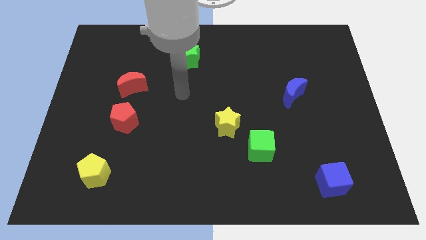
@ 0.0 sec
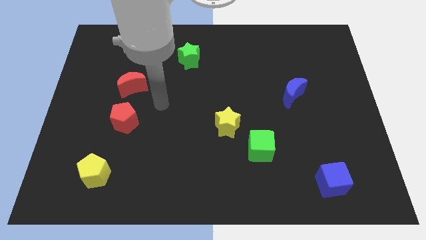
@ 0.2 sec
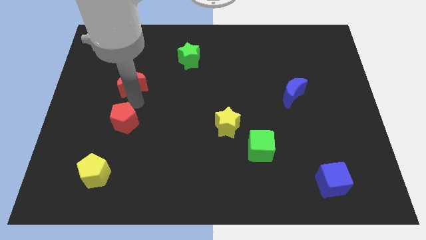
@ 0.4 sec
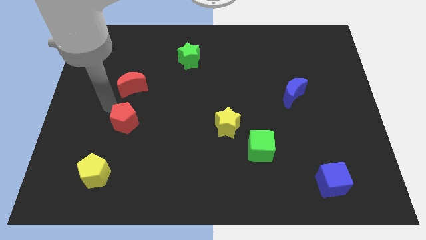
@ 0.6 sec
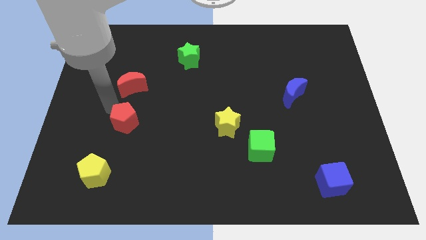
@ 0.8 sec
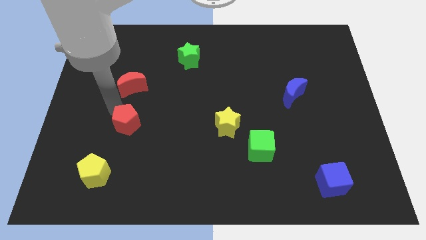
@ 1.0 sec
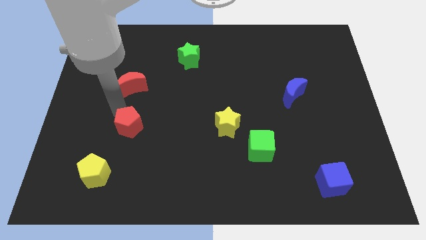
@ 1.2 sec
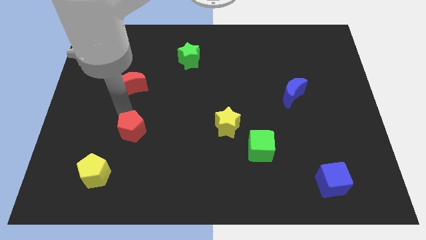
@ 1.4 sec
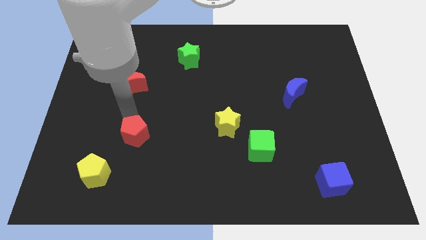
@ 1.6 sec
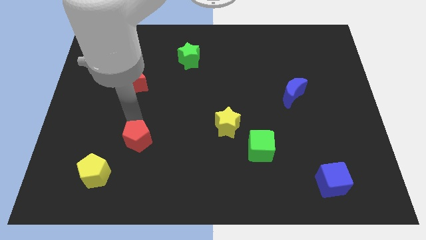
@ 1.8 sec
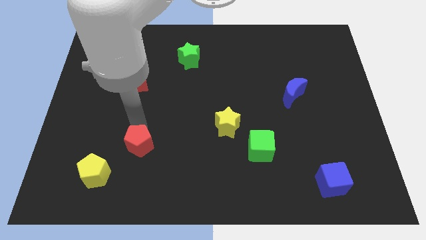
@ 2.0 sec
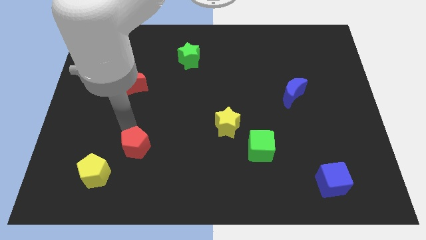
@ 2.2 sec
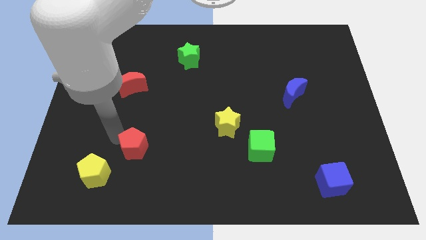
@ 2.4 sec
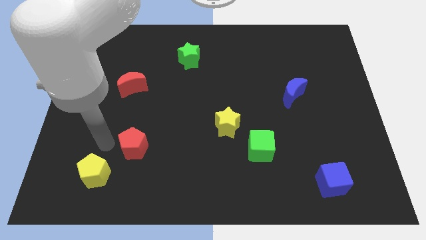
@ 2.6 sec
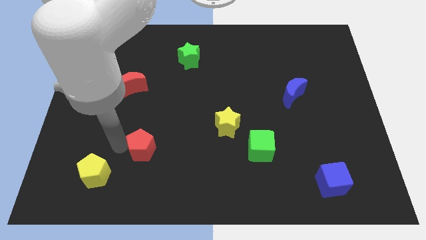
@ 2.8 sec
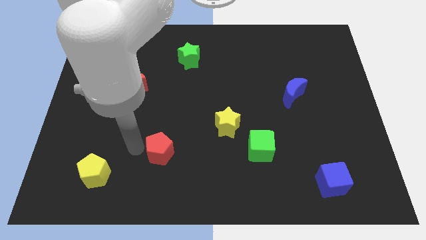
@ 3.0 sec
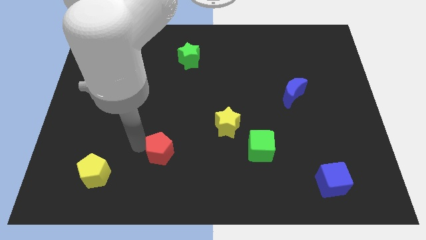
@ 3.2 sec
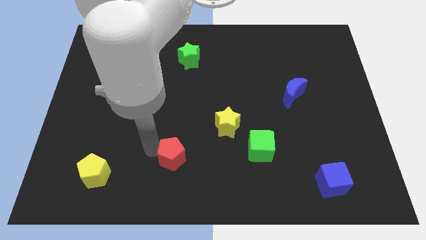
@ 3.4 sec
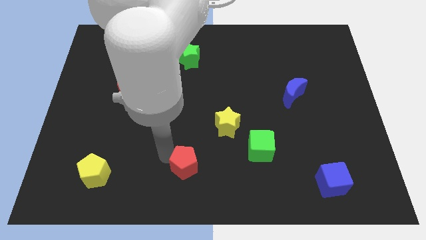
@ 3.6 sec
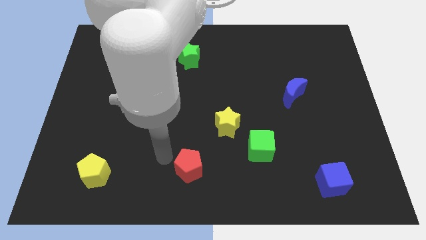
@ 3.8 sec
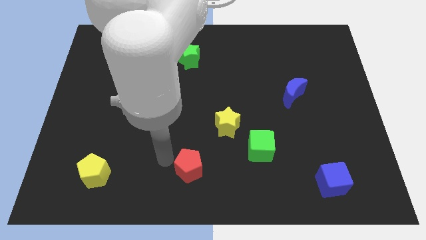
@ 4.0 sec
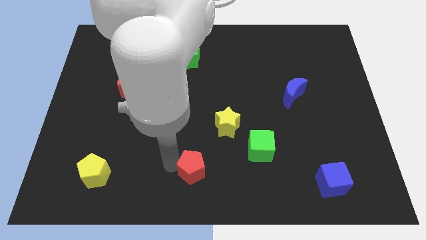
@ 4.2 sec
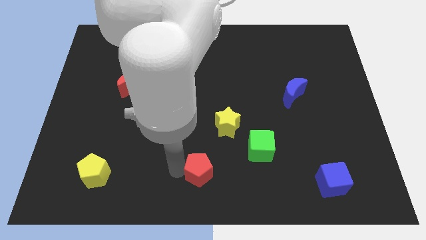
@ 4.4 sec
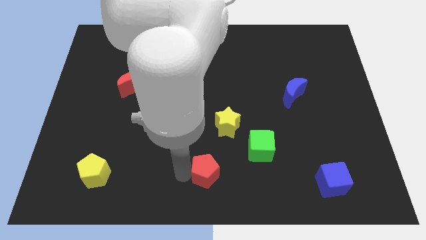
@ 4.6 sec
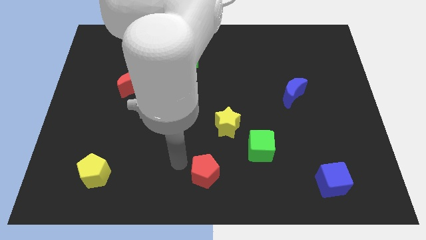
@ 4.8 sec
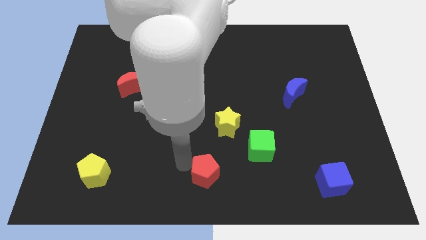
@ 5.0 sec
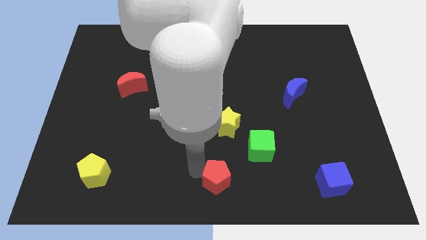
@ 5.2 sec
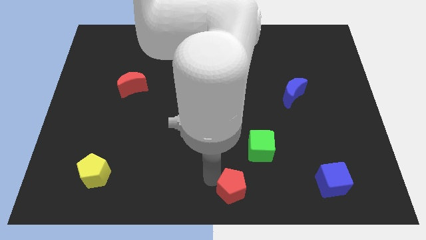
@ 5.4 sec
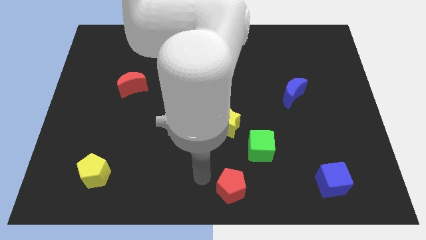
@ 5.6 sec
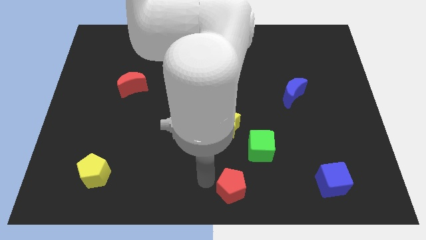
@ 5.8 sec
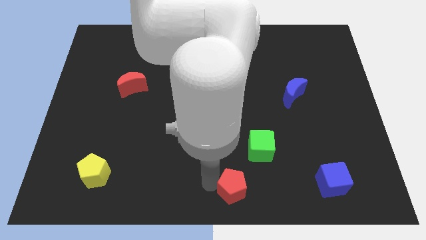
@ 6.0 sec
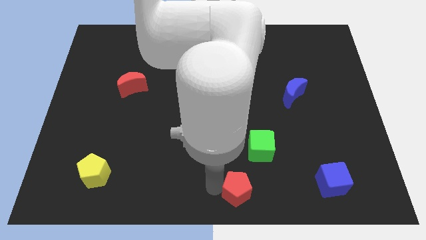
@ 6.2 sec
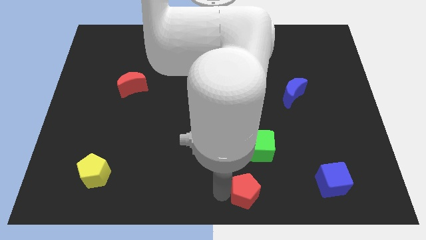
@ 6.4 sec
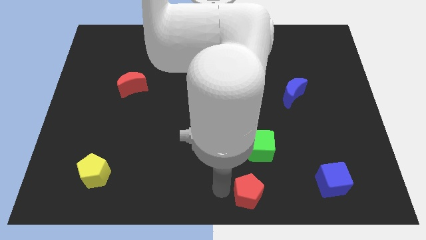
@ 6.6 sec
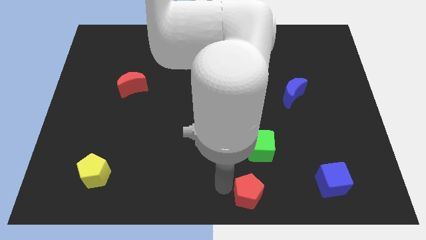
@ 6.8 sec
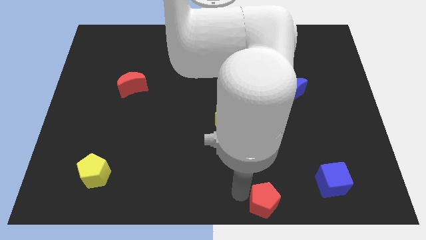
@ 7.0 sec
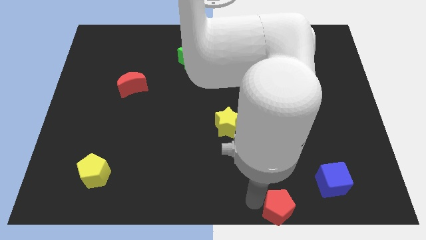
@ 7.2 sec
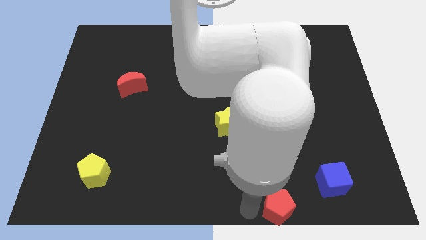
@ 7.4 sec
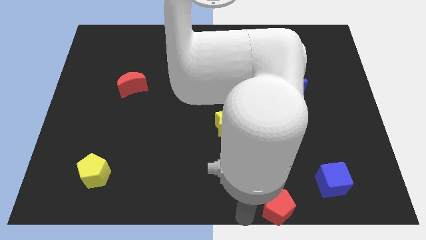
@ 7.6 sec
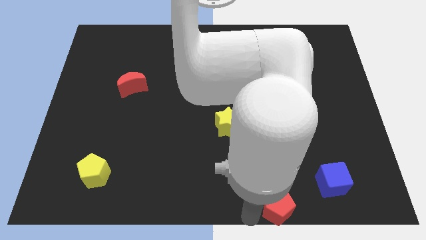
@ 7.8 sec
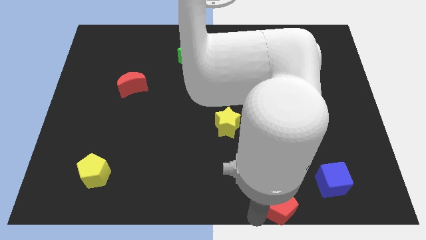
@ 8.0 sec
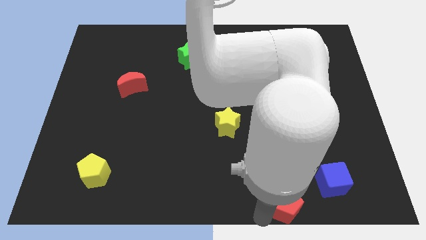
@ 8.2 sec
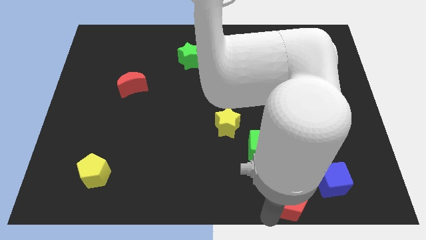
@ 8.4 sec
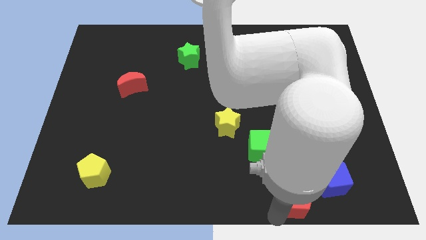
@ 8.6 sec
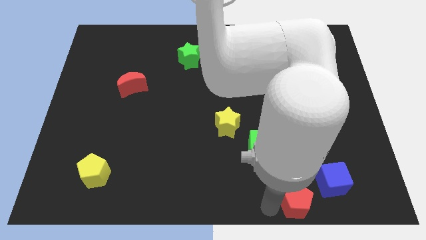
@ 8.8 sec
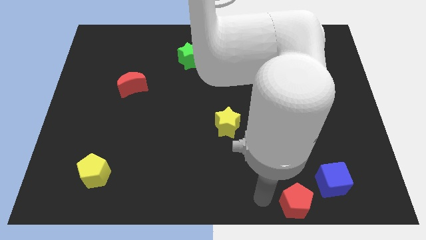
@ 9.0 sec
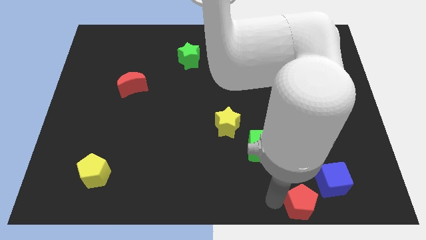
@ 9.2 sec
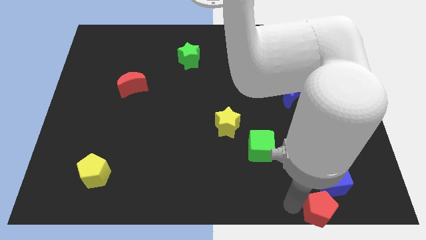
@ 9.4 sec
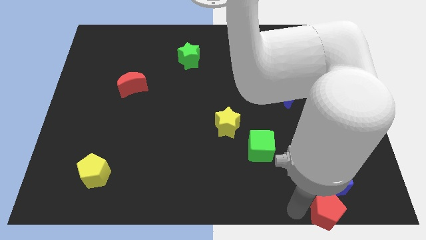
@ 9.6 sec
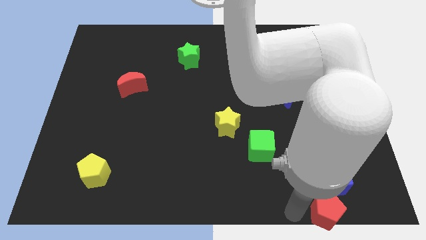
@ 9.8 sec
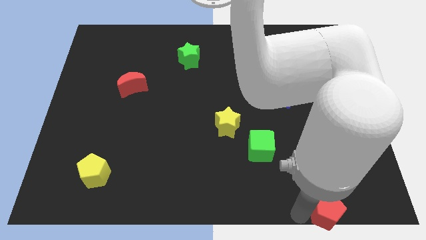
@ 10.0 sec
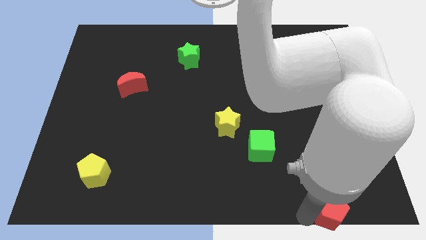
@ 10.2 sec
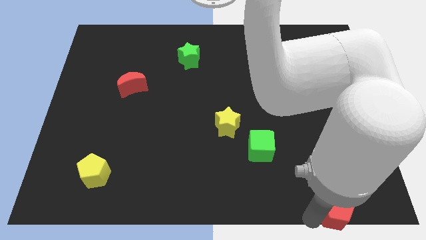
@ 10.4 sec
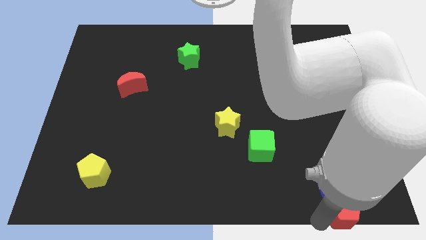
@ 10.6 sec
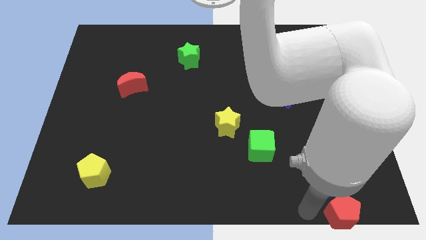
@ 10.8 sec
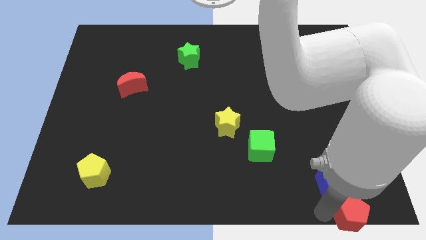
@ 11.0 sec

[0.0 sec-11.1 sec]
slide the red pentagon to the lower right corner

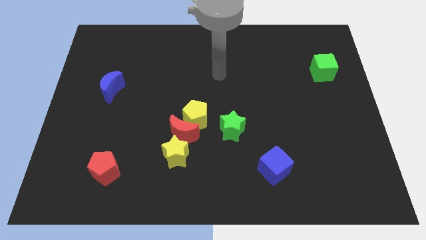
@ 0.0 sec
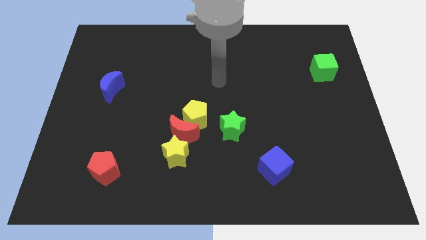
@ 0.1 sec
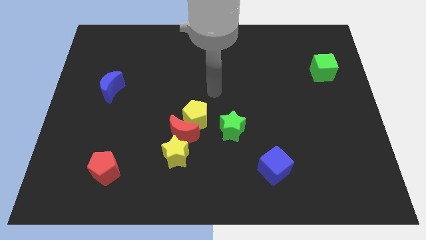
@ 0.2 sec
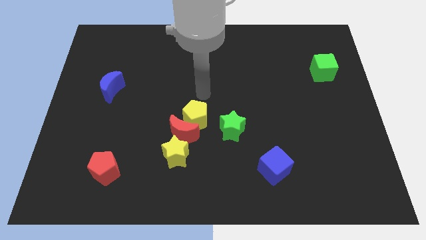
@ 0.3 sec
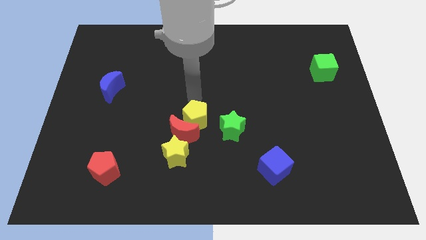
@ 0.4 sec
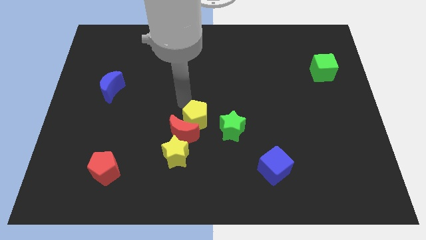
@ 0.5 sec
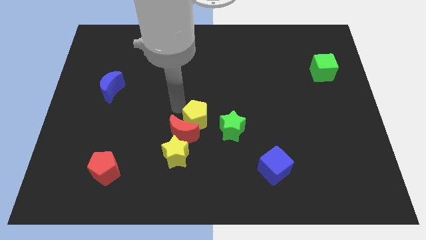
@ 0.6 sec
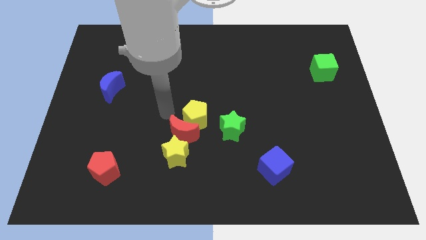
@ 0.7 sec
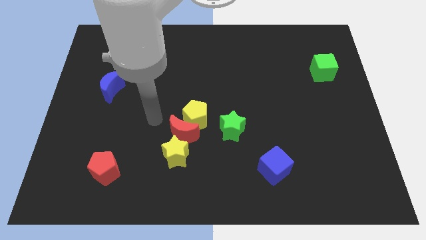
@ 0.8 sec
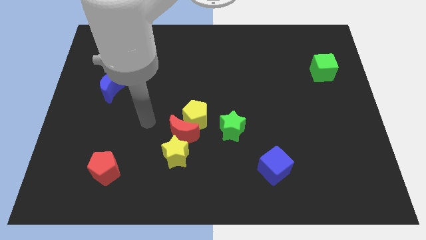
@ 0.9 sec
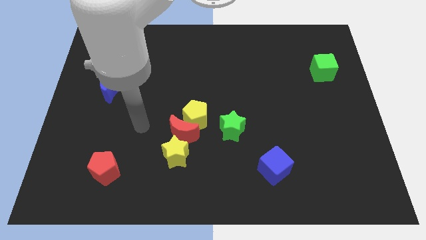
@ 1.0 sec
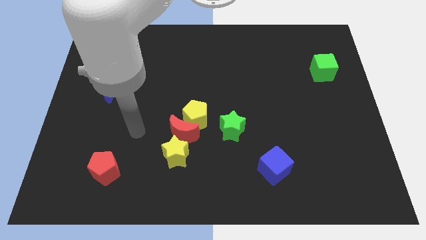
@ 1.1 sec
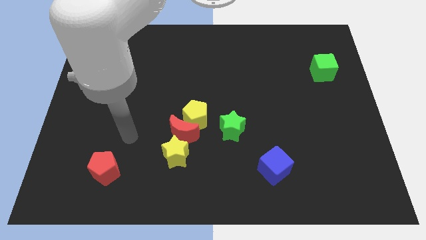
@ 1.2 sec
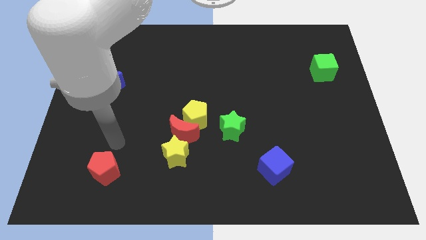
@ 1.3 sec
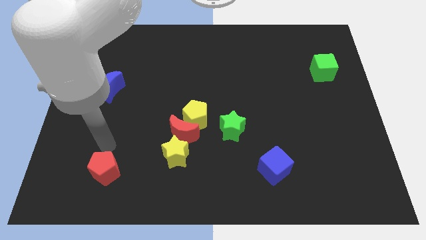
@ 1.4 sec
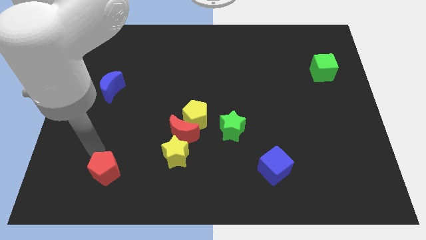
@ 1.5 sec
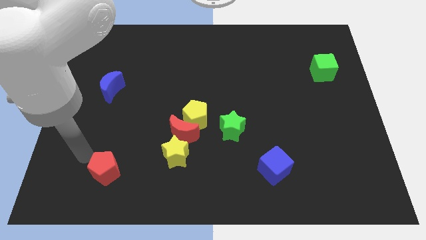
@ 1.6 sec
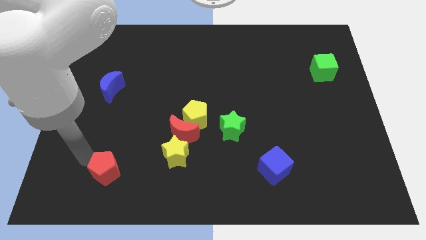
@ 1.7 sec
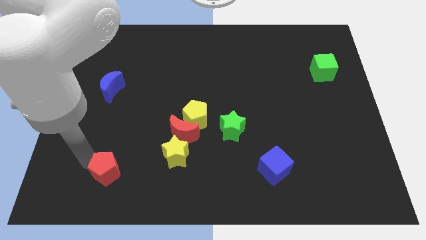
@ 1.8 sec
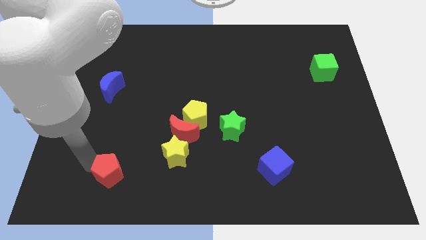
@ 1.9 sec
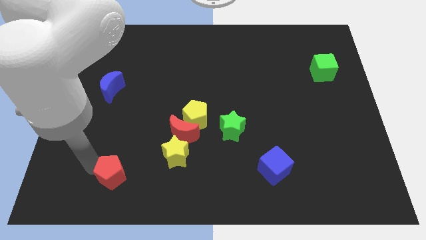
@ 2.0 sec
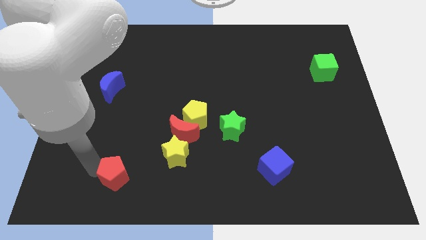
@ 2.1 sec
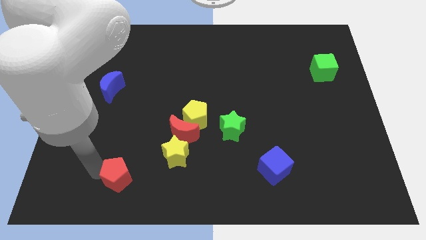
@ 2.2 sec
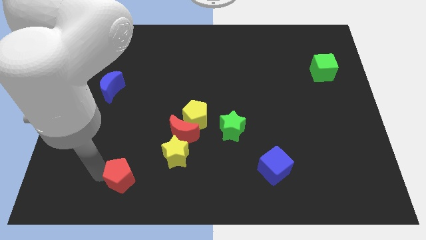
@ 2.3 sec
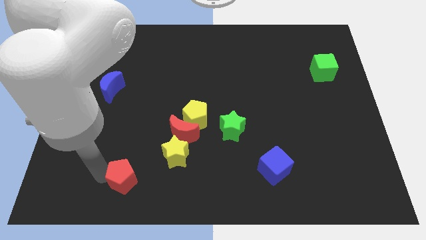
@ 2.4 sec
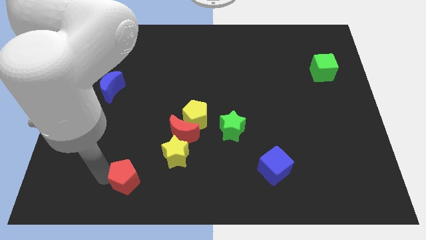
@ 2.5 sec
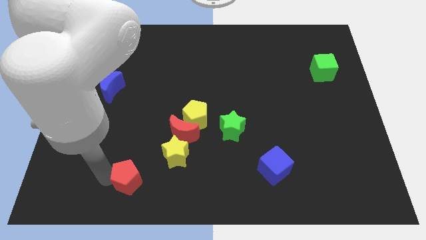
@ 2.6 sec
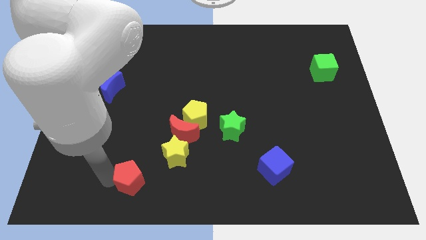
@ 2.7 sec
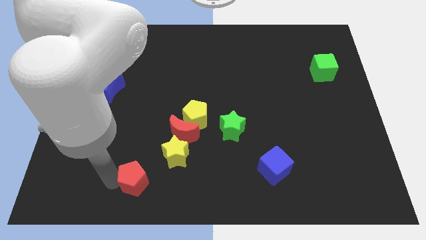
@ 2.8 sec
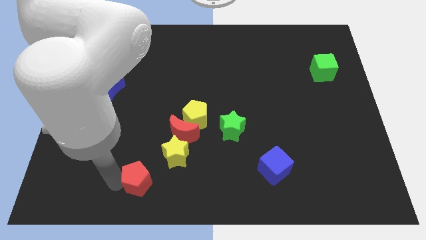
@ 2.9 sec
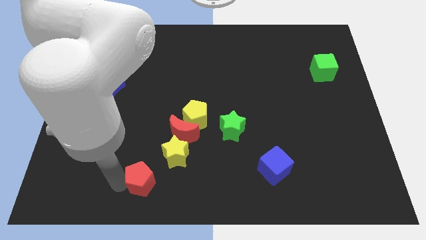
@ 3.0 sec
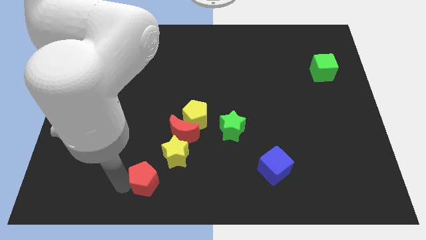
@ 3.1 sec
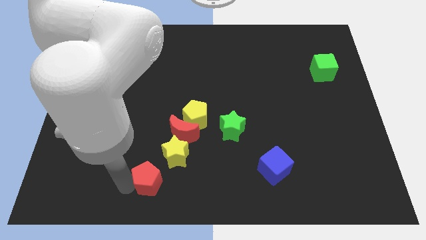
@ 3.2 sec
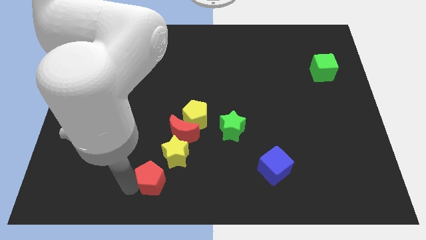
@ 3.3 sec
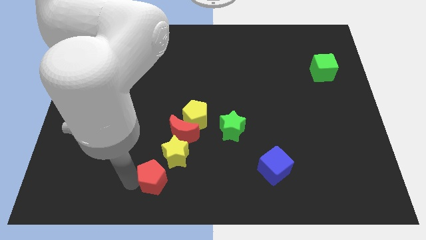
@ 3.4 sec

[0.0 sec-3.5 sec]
slide the red pentagon to the bottom side
